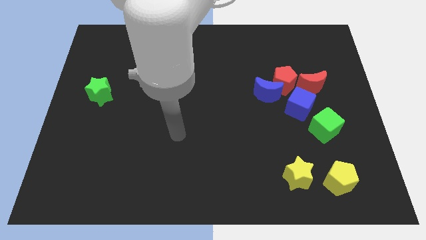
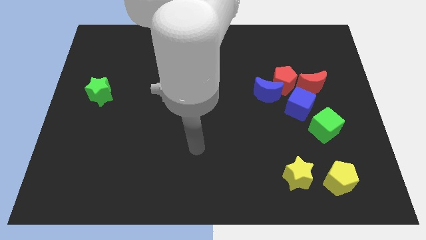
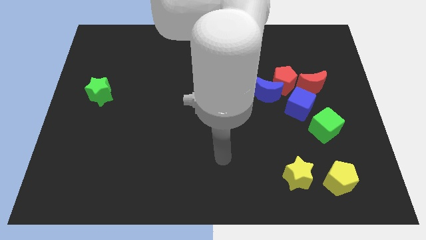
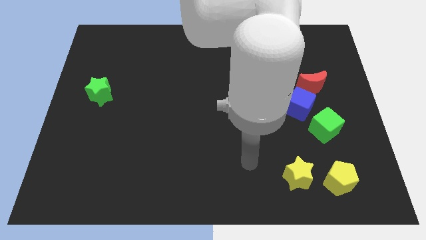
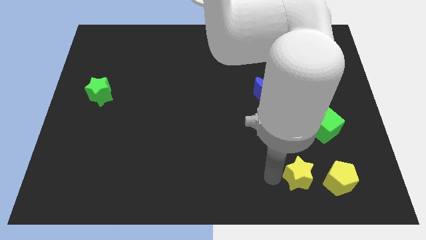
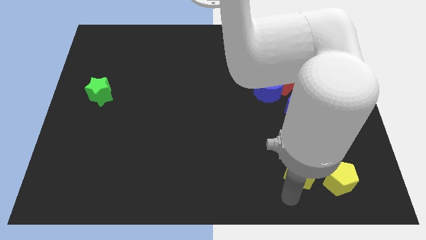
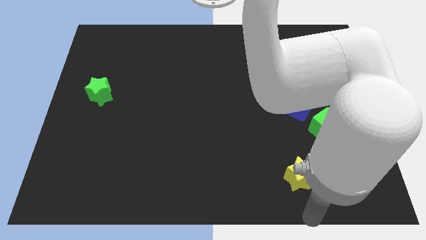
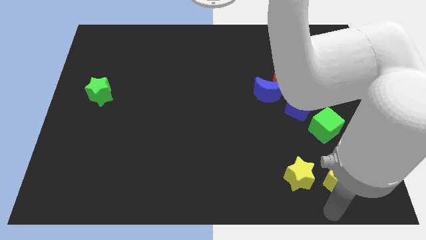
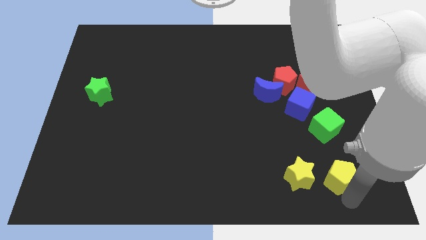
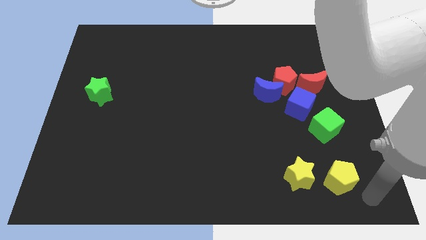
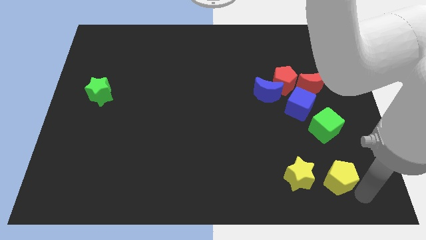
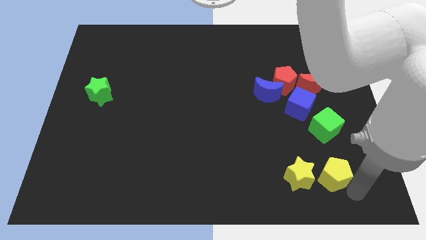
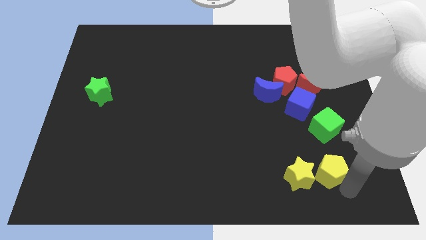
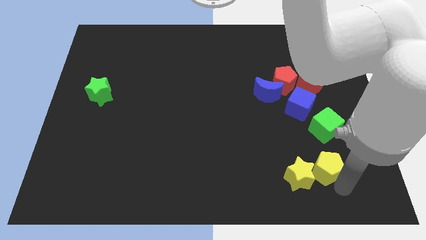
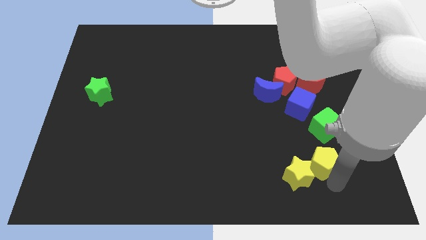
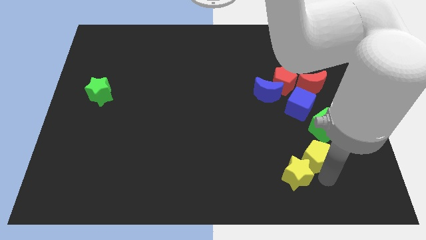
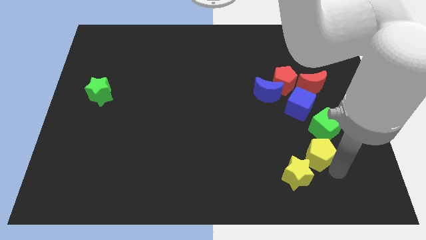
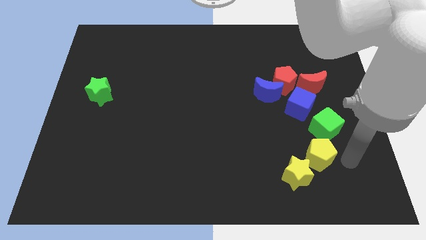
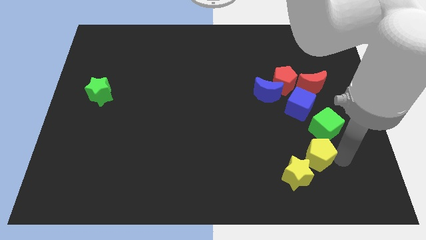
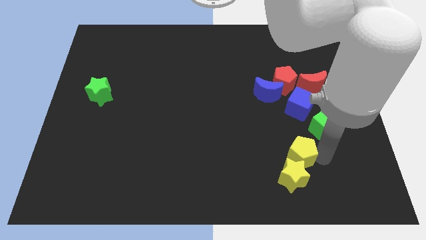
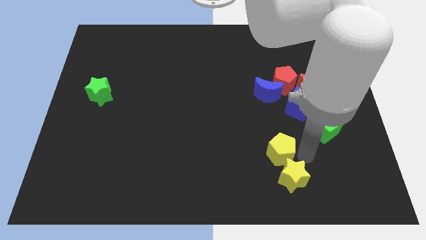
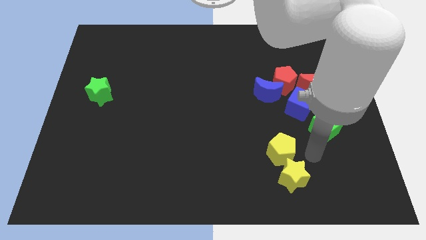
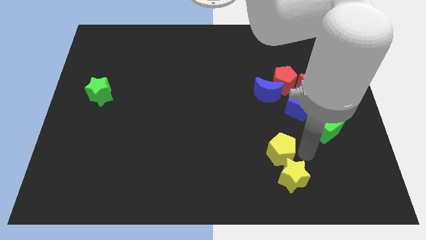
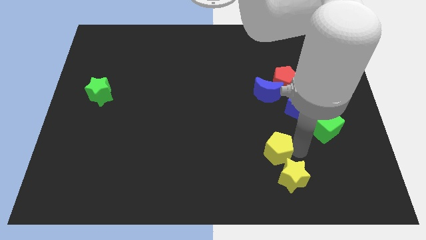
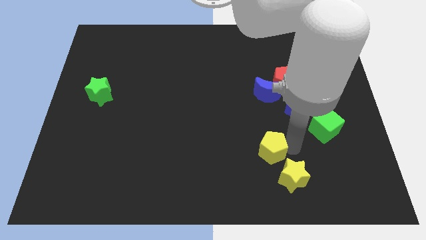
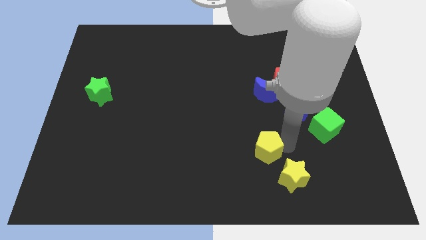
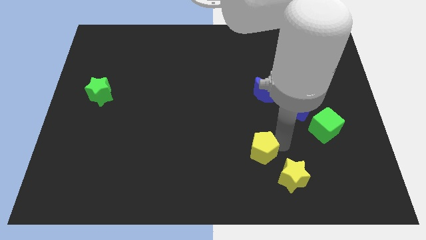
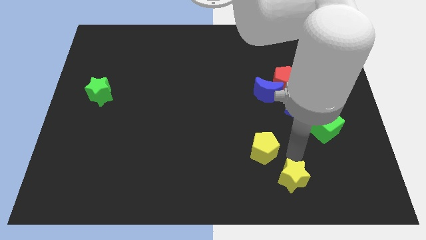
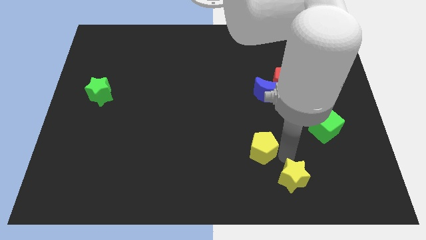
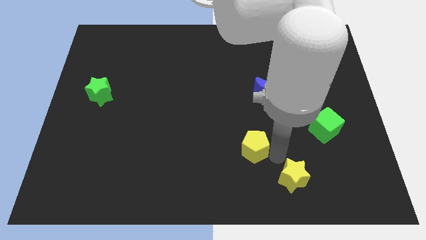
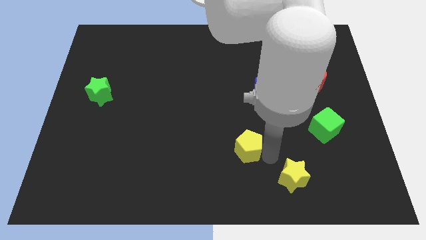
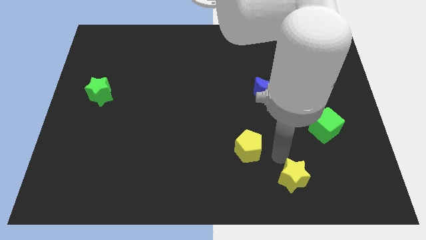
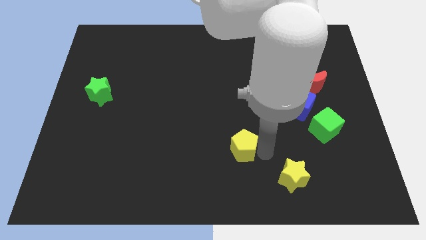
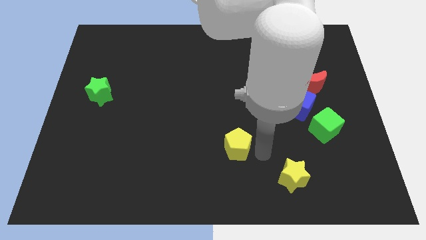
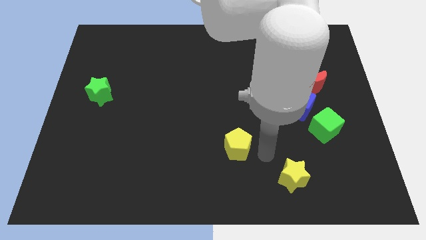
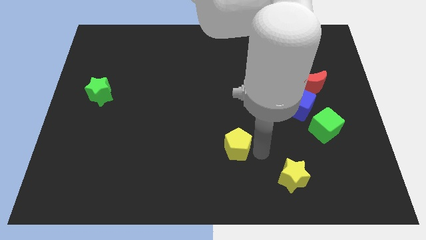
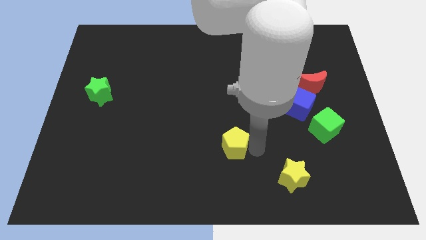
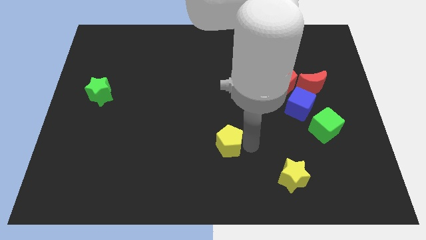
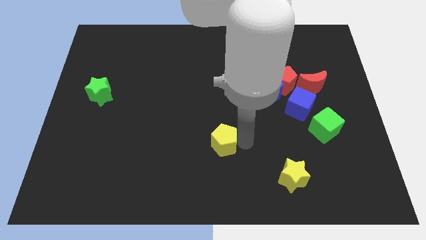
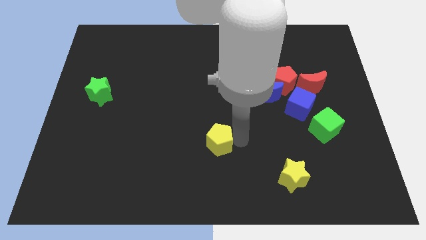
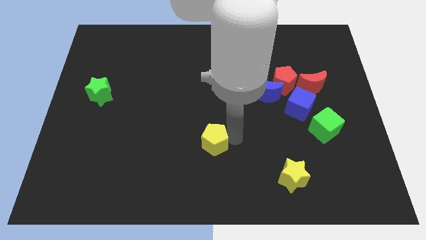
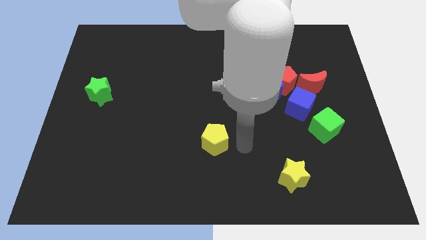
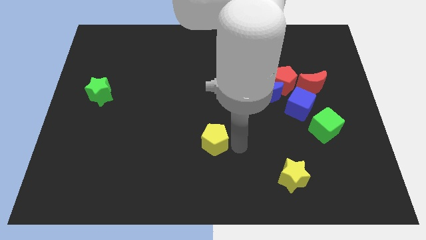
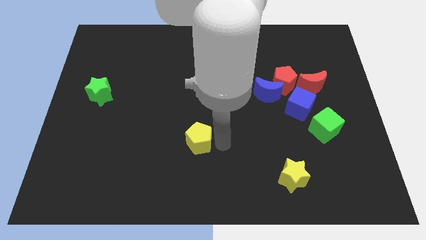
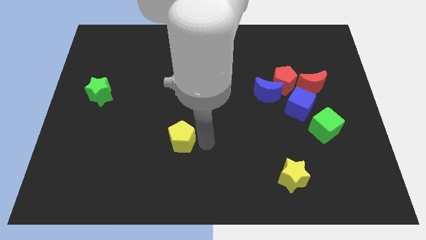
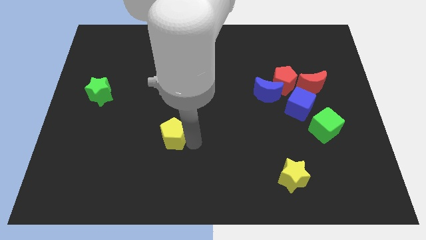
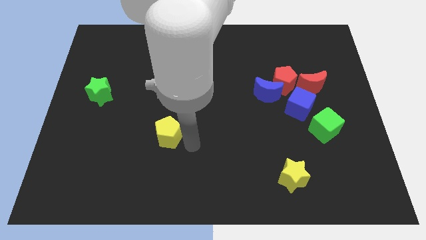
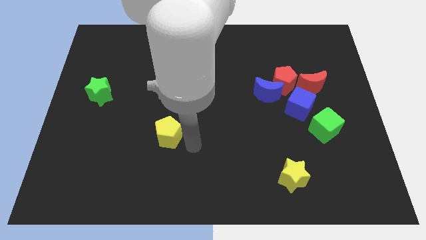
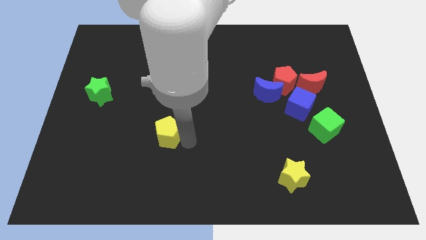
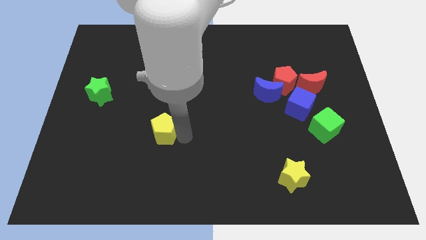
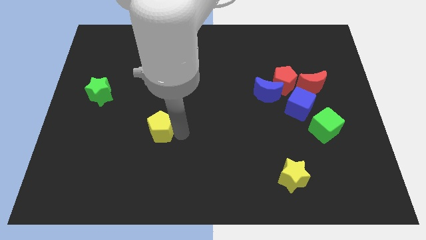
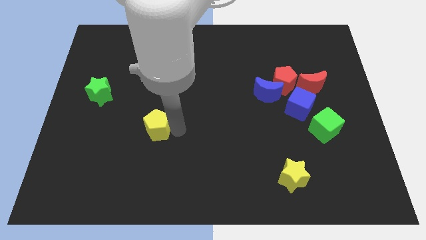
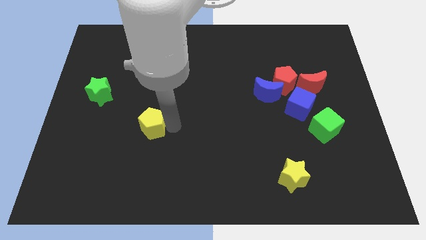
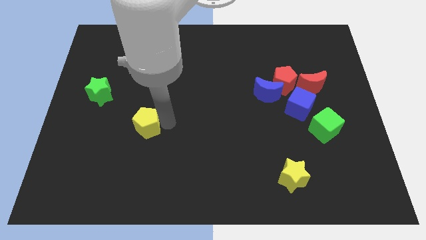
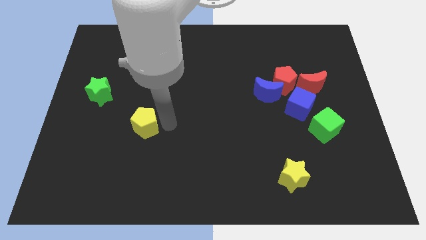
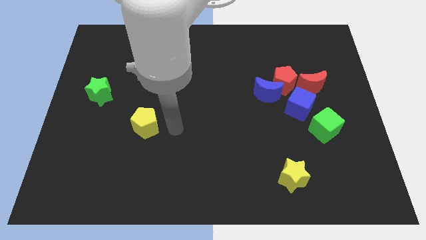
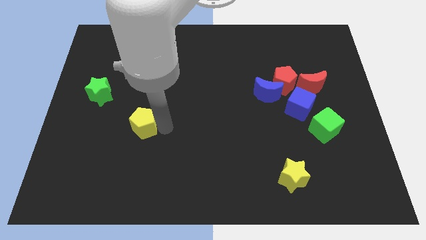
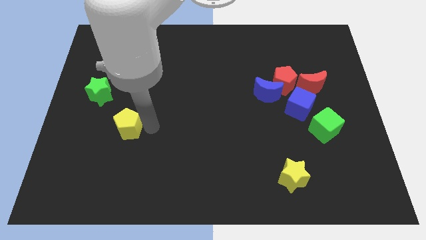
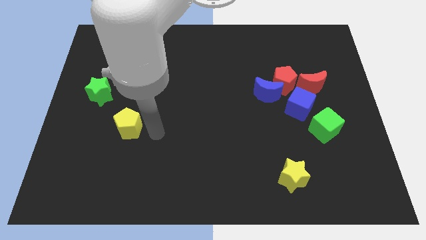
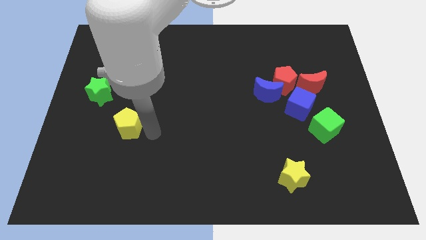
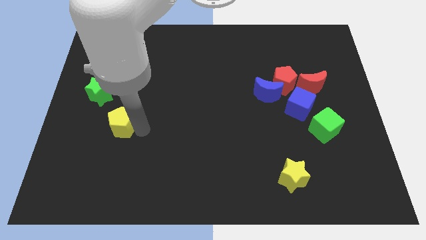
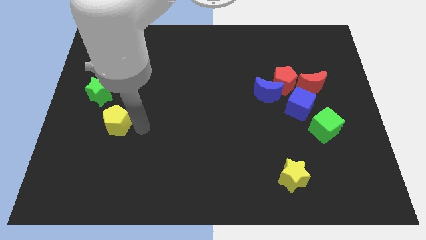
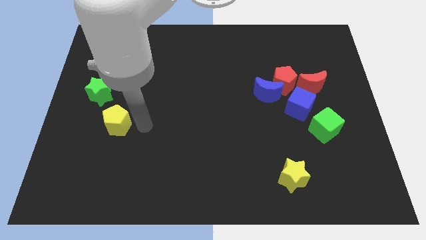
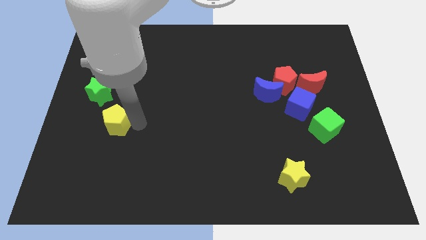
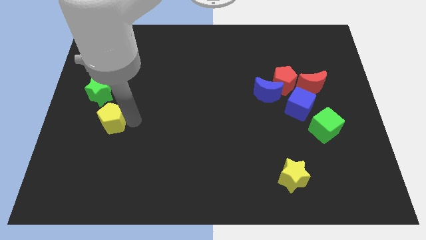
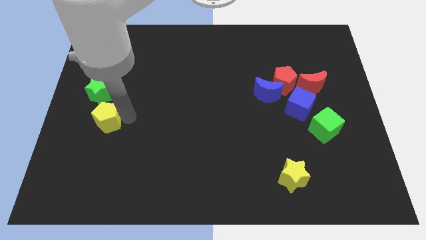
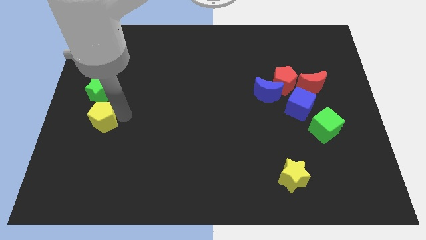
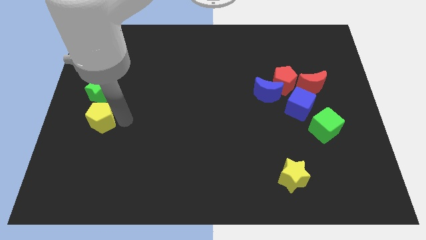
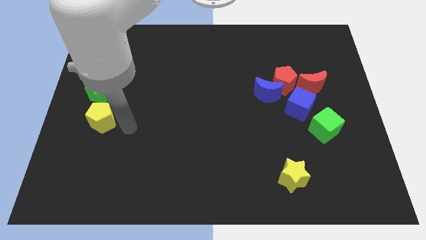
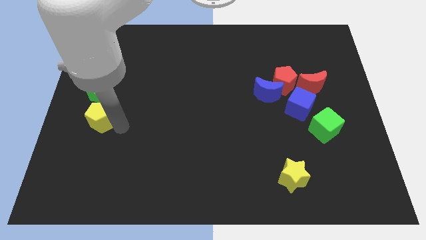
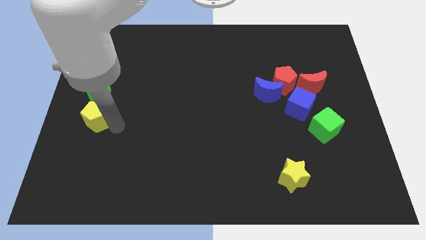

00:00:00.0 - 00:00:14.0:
put the yellow pentagon to the left side of the board
